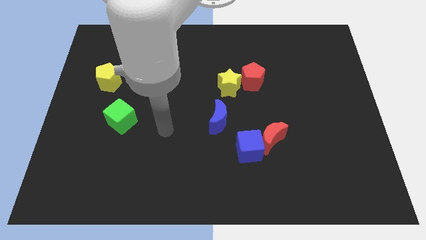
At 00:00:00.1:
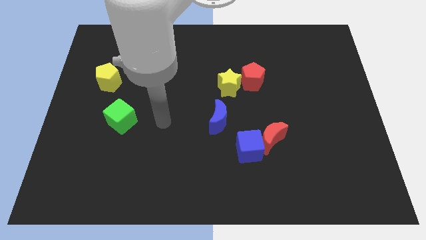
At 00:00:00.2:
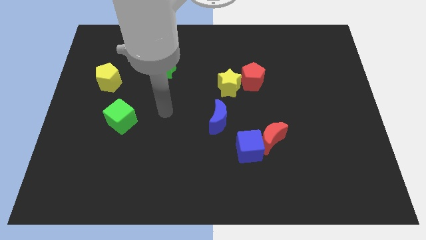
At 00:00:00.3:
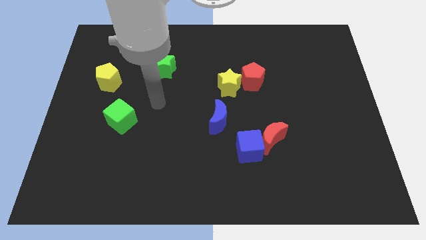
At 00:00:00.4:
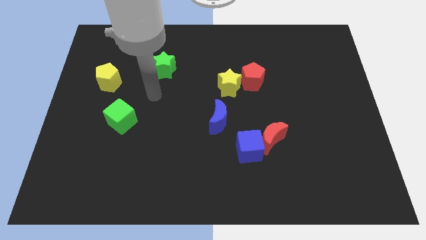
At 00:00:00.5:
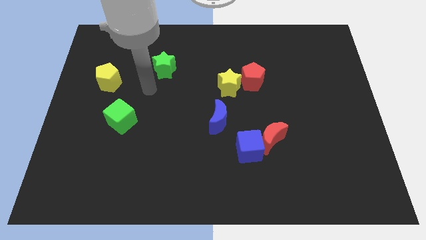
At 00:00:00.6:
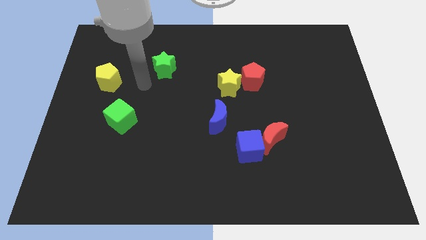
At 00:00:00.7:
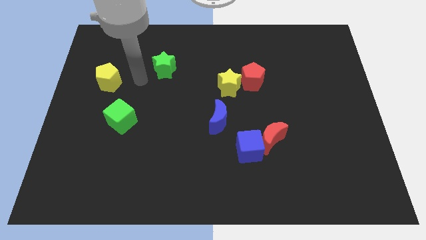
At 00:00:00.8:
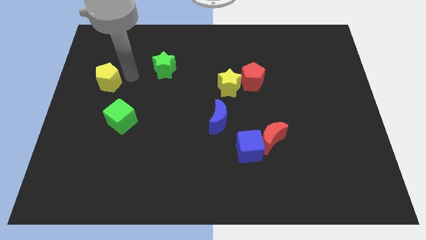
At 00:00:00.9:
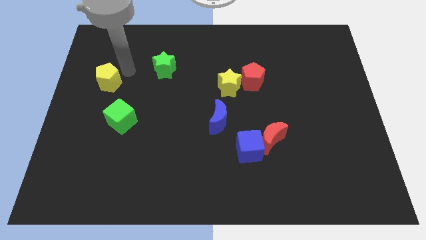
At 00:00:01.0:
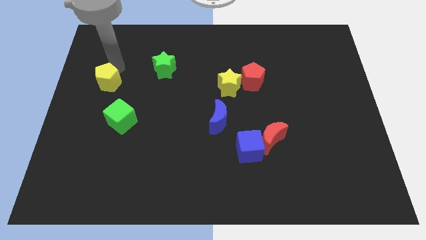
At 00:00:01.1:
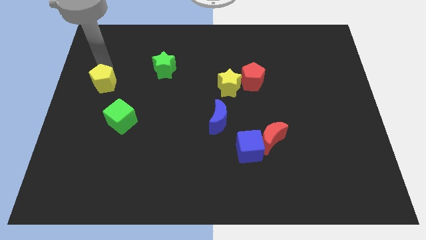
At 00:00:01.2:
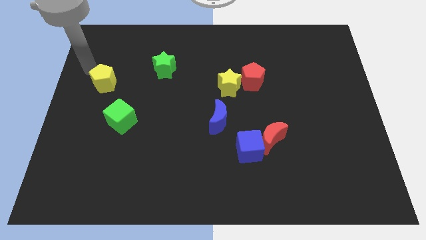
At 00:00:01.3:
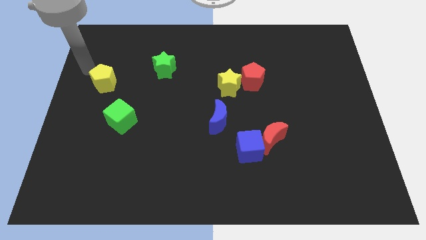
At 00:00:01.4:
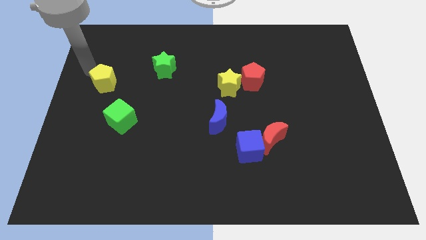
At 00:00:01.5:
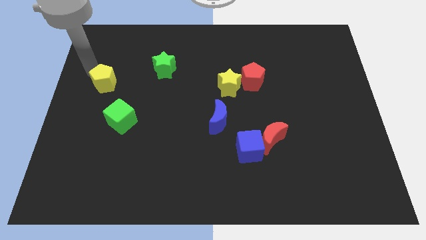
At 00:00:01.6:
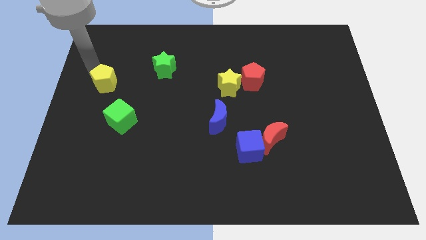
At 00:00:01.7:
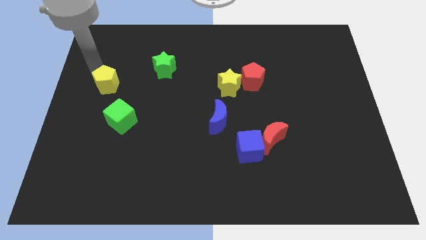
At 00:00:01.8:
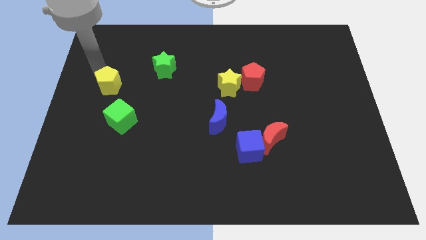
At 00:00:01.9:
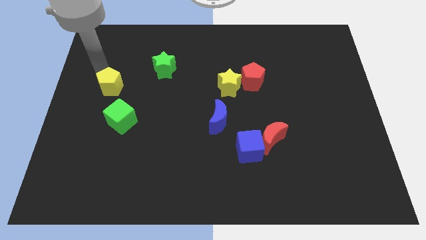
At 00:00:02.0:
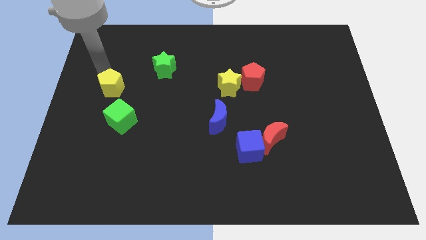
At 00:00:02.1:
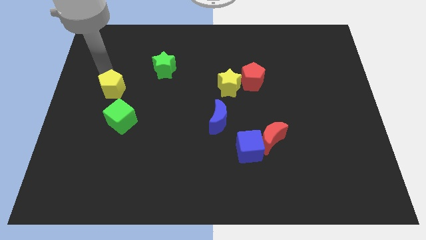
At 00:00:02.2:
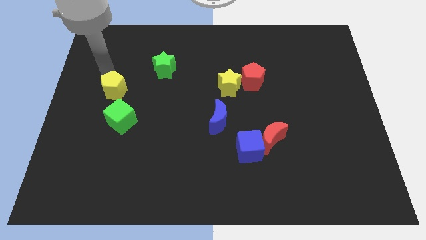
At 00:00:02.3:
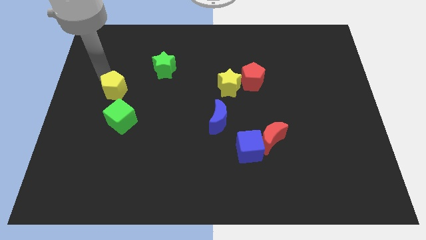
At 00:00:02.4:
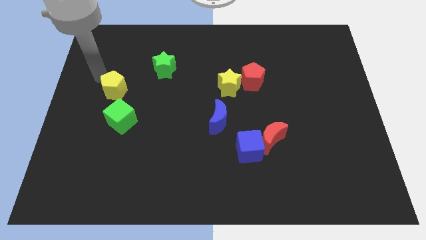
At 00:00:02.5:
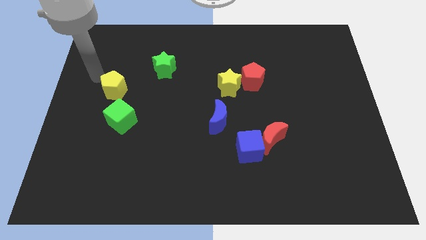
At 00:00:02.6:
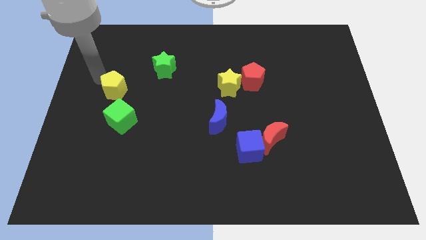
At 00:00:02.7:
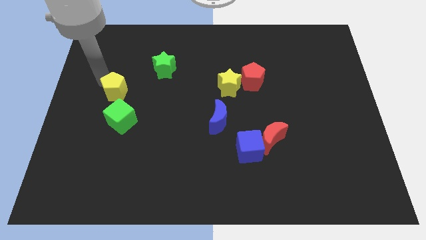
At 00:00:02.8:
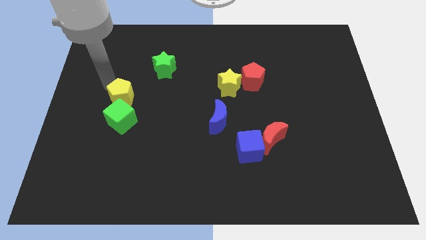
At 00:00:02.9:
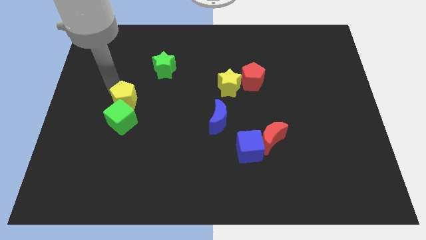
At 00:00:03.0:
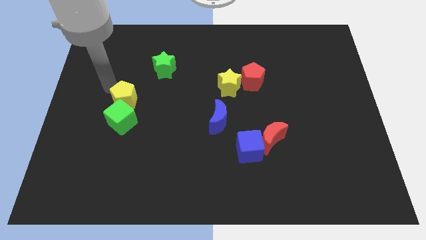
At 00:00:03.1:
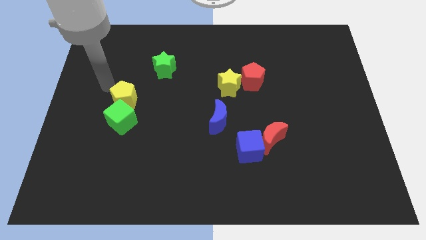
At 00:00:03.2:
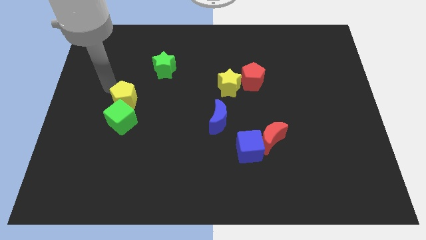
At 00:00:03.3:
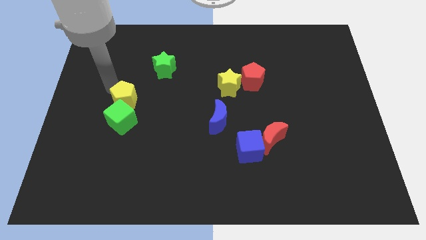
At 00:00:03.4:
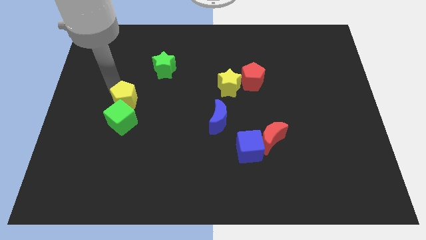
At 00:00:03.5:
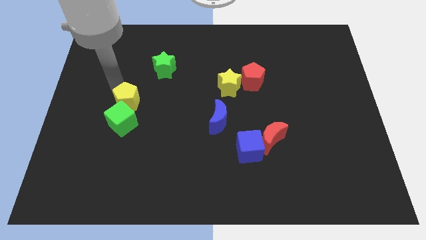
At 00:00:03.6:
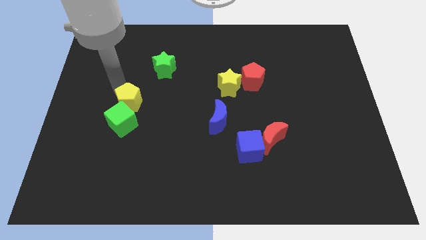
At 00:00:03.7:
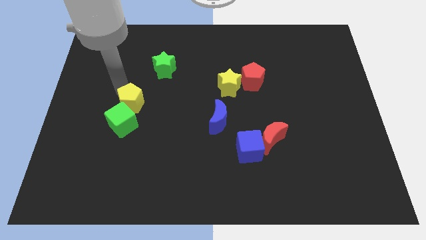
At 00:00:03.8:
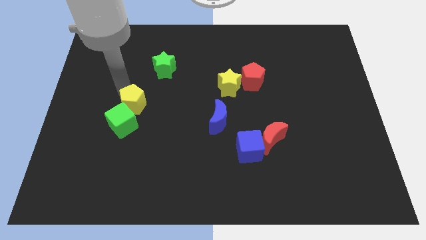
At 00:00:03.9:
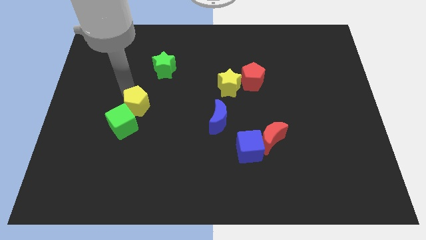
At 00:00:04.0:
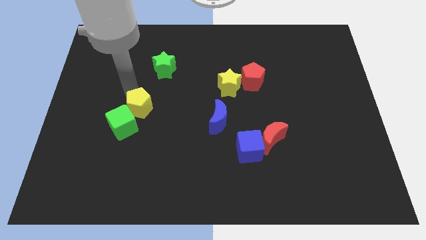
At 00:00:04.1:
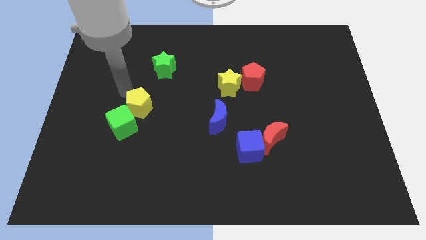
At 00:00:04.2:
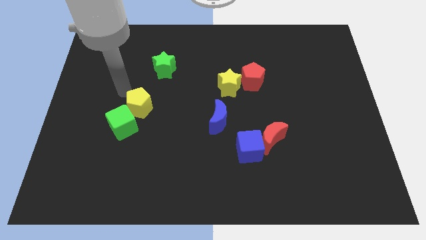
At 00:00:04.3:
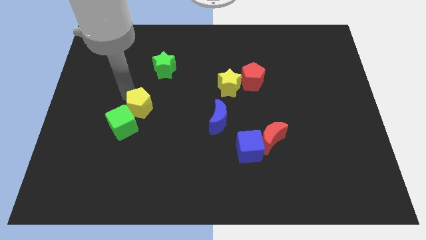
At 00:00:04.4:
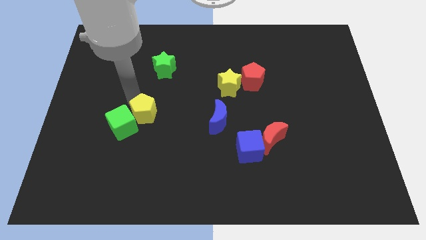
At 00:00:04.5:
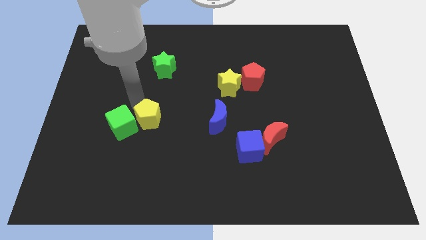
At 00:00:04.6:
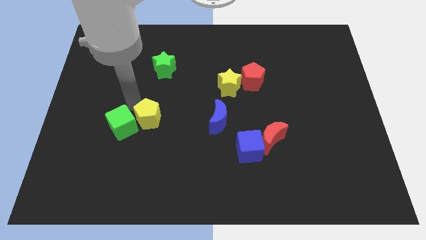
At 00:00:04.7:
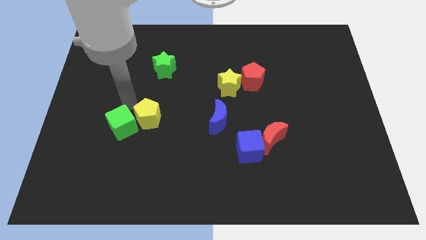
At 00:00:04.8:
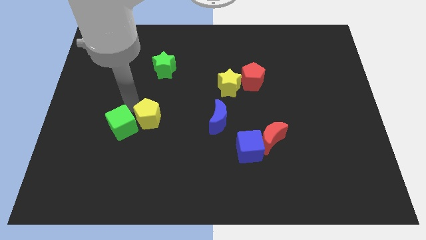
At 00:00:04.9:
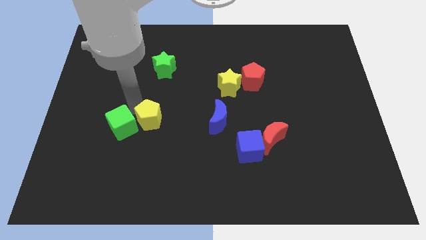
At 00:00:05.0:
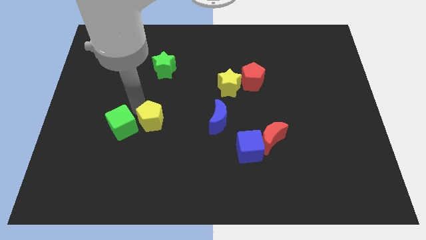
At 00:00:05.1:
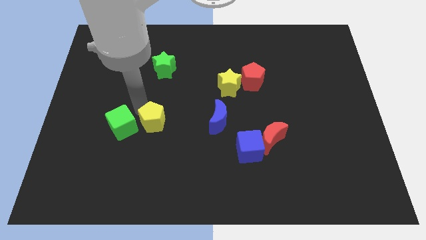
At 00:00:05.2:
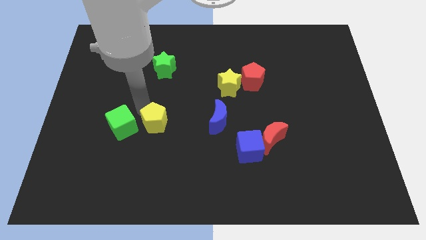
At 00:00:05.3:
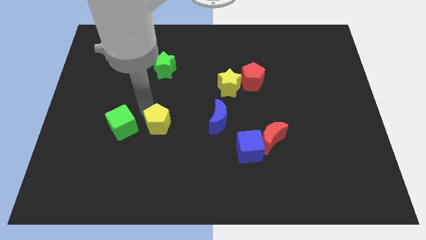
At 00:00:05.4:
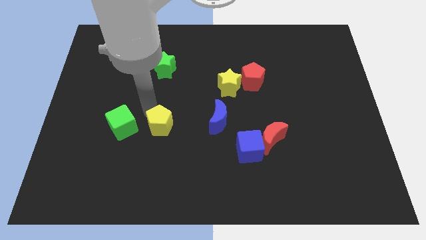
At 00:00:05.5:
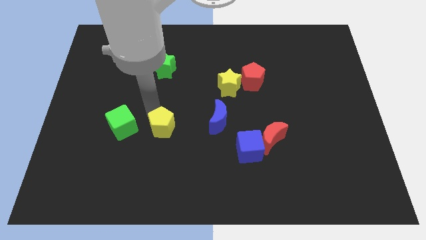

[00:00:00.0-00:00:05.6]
slide the yellow pentagon down and right

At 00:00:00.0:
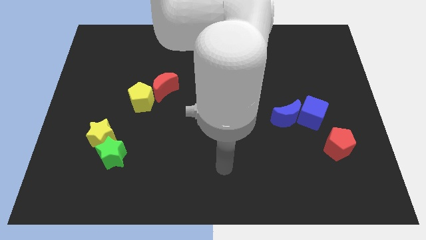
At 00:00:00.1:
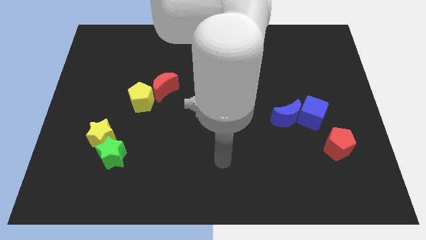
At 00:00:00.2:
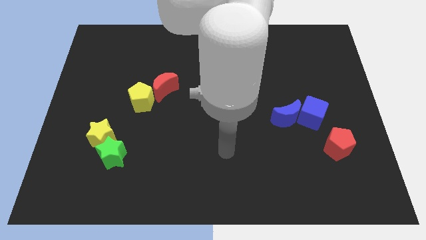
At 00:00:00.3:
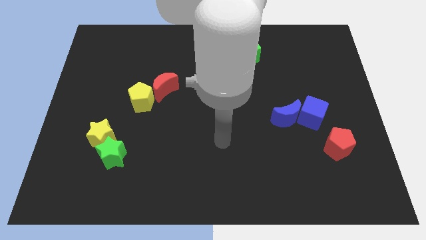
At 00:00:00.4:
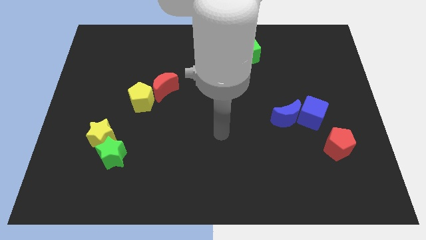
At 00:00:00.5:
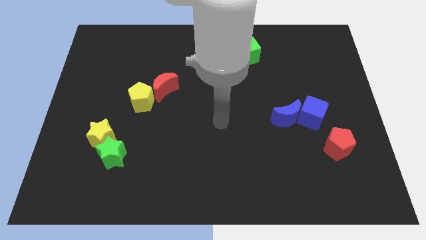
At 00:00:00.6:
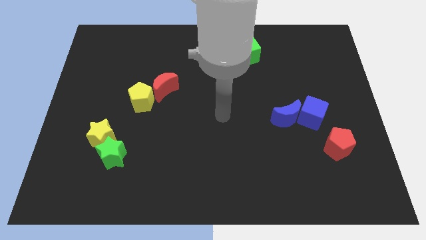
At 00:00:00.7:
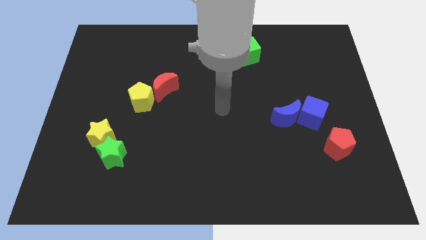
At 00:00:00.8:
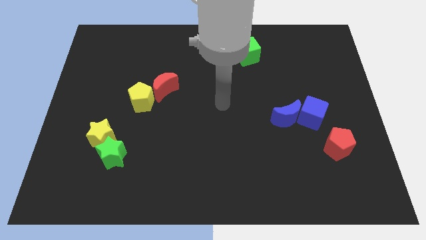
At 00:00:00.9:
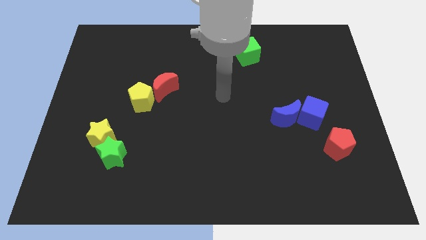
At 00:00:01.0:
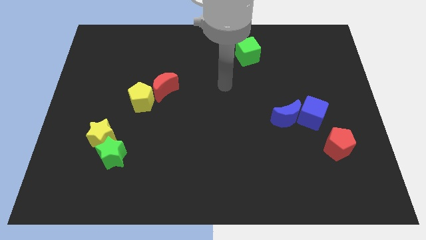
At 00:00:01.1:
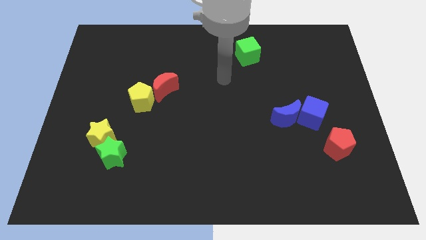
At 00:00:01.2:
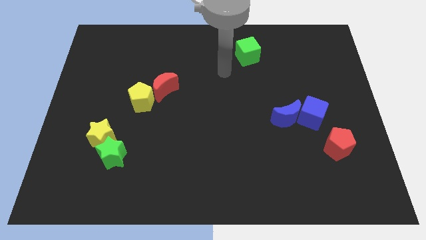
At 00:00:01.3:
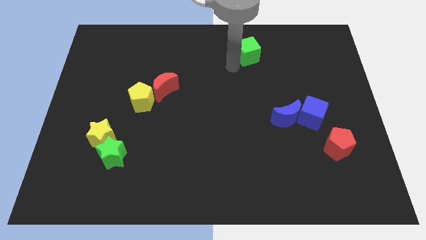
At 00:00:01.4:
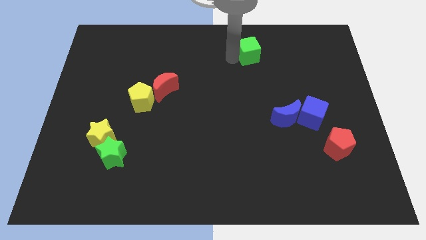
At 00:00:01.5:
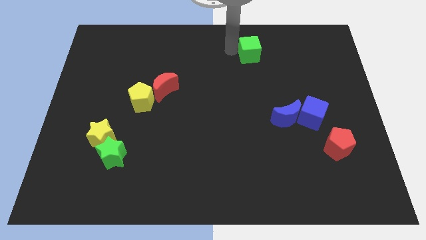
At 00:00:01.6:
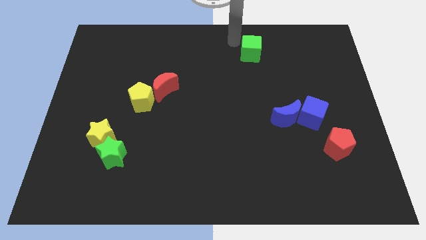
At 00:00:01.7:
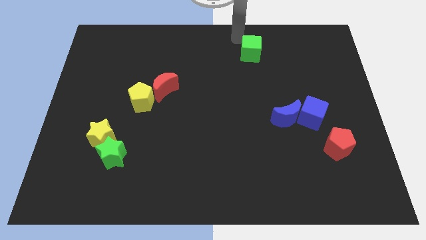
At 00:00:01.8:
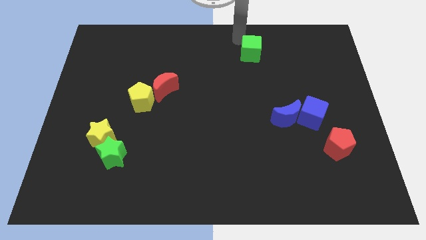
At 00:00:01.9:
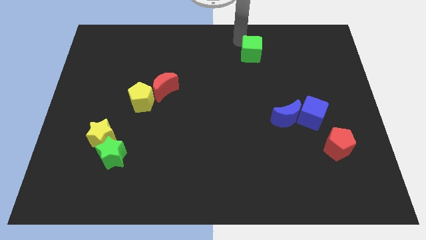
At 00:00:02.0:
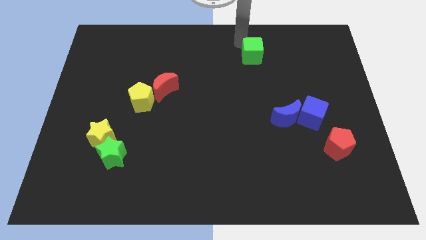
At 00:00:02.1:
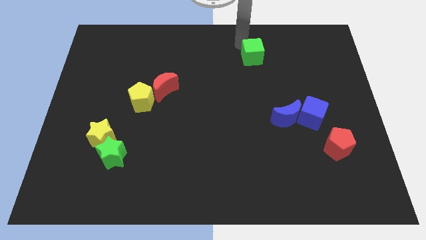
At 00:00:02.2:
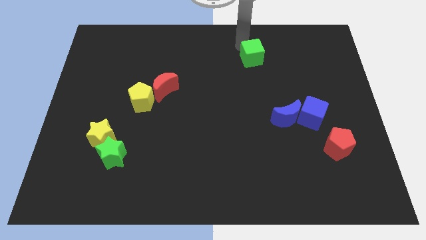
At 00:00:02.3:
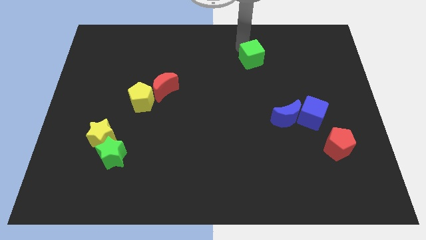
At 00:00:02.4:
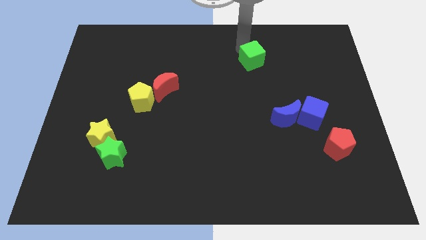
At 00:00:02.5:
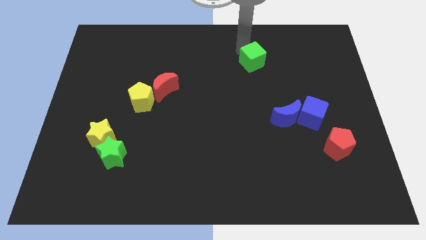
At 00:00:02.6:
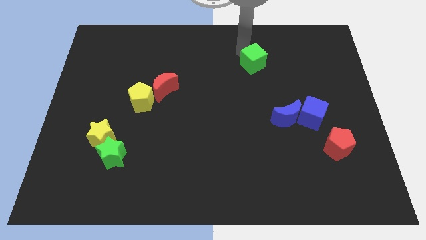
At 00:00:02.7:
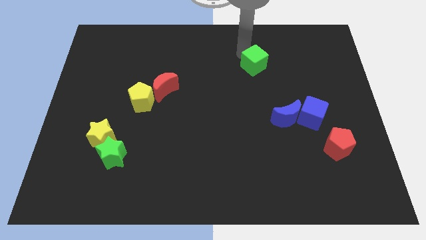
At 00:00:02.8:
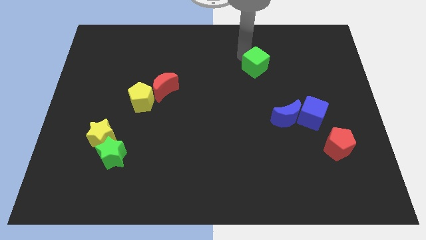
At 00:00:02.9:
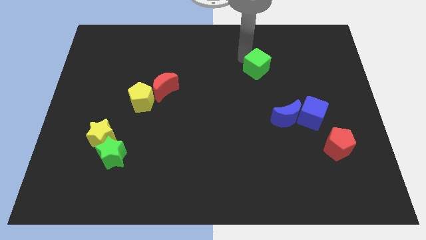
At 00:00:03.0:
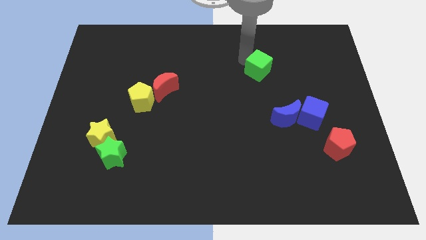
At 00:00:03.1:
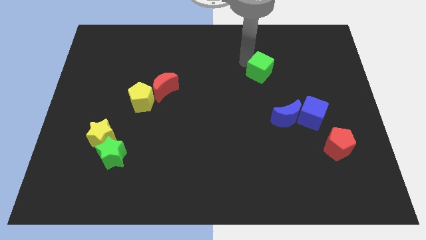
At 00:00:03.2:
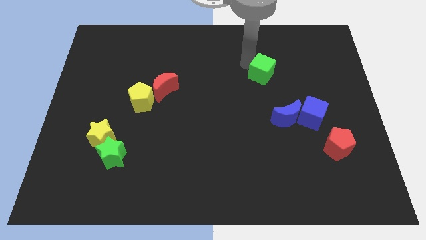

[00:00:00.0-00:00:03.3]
push the green cube a bit down and to the right diagonally
